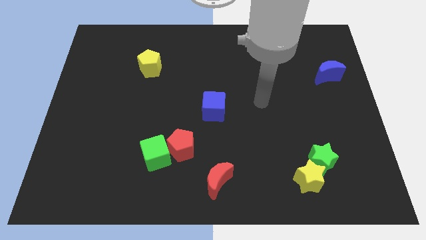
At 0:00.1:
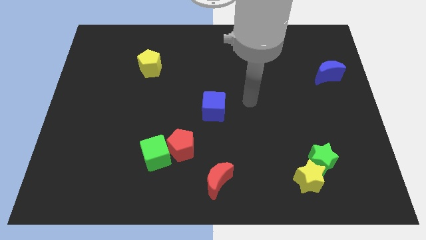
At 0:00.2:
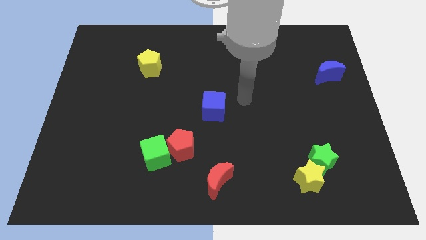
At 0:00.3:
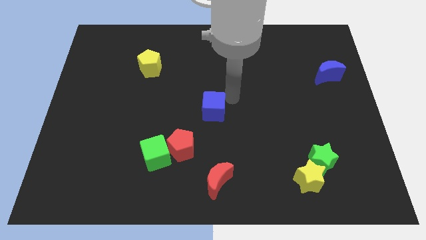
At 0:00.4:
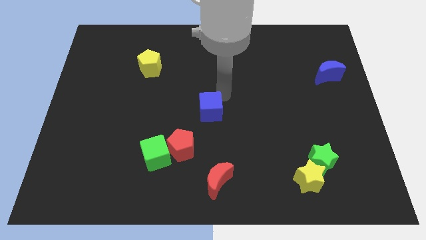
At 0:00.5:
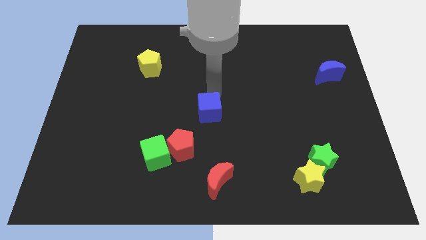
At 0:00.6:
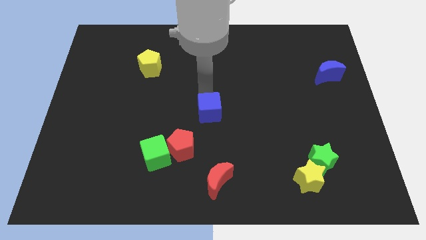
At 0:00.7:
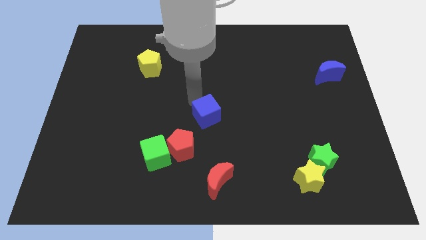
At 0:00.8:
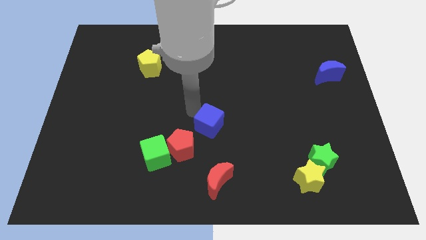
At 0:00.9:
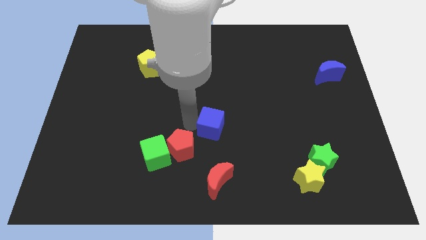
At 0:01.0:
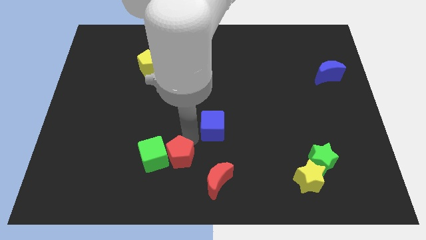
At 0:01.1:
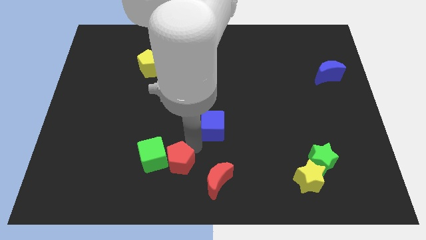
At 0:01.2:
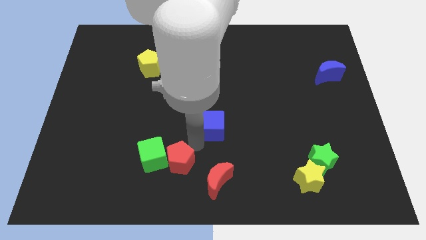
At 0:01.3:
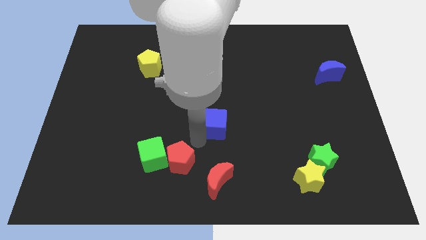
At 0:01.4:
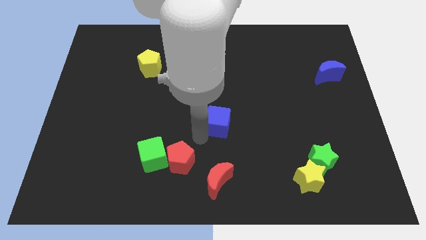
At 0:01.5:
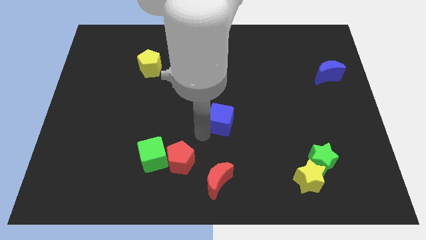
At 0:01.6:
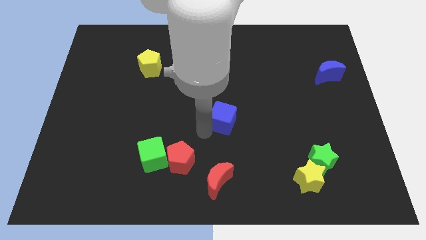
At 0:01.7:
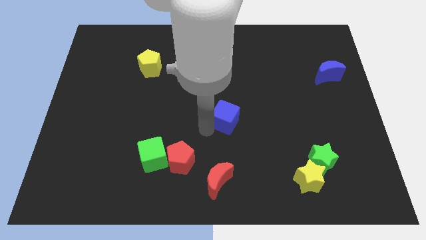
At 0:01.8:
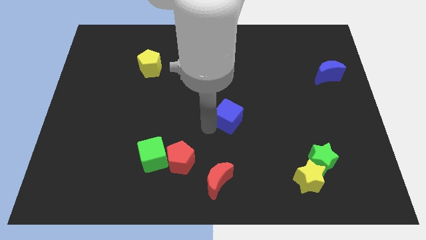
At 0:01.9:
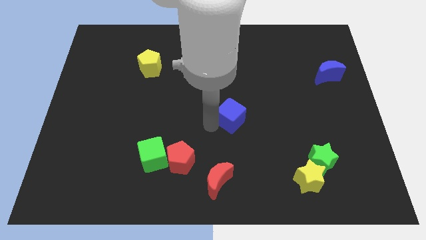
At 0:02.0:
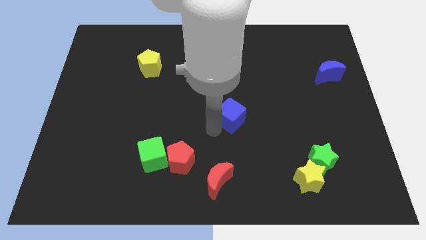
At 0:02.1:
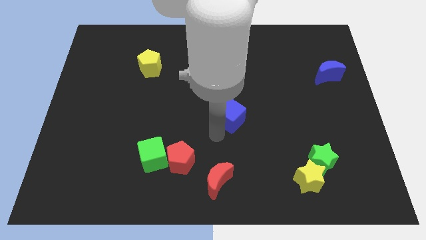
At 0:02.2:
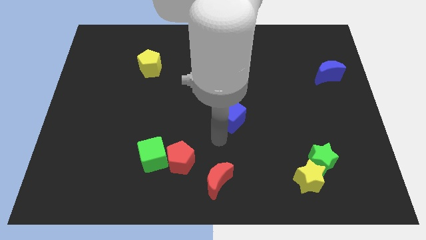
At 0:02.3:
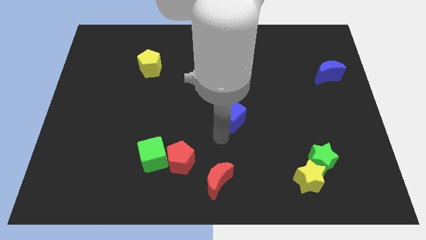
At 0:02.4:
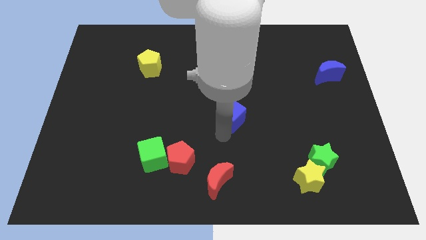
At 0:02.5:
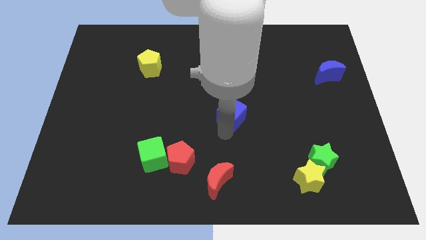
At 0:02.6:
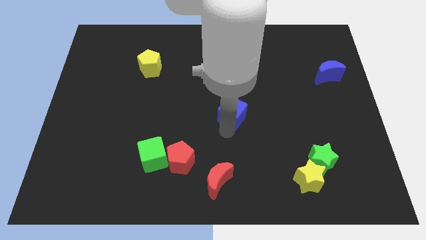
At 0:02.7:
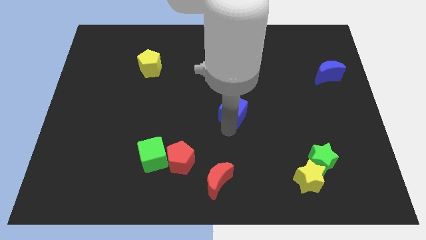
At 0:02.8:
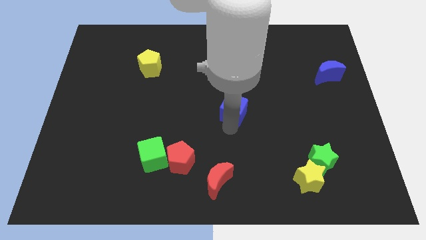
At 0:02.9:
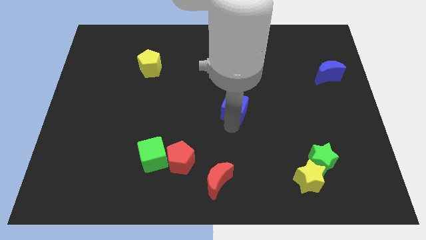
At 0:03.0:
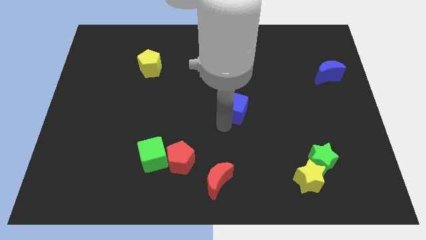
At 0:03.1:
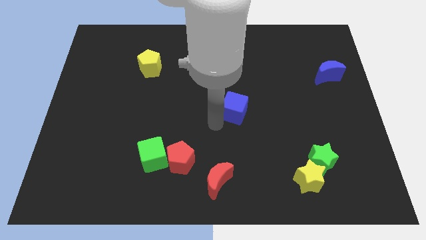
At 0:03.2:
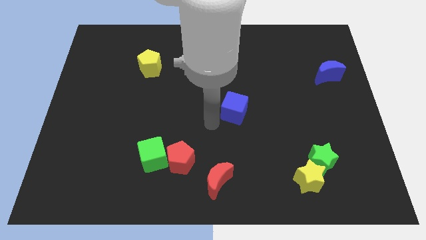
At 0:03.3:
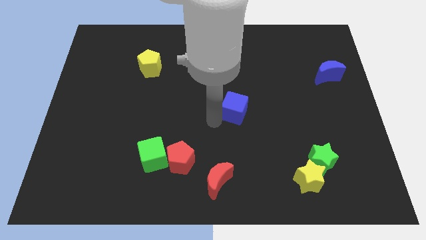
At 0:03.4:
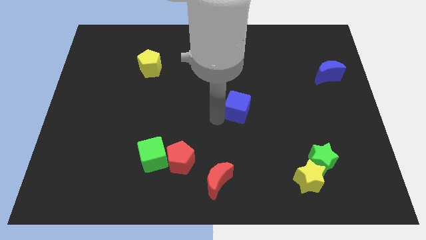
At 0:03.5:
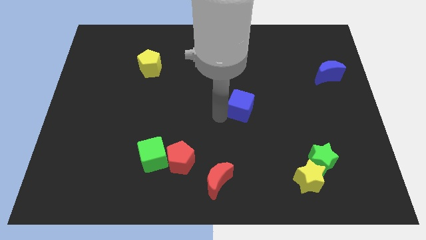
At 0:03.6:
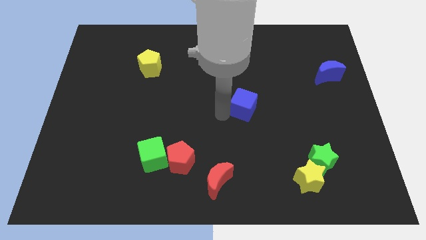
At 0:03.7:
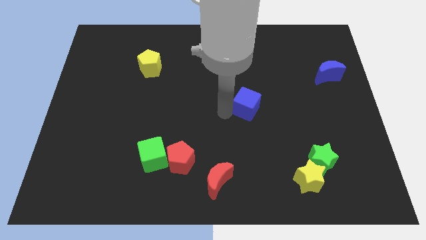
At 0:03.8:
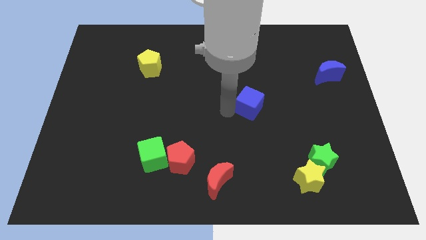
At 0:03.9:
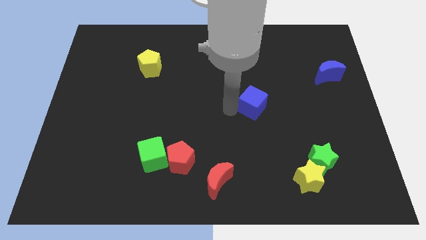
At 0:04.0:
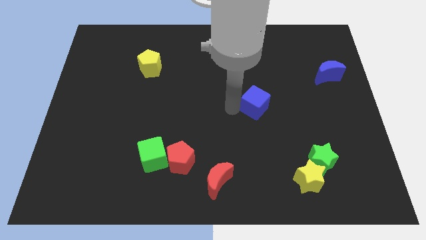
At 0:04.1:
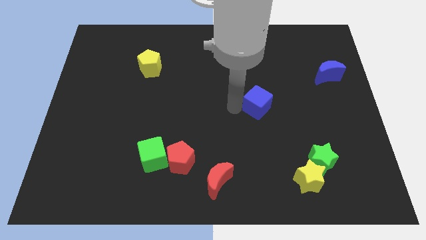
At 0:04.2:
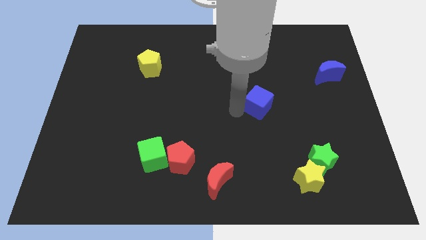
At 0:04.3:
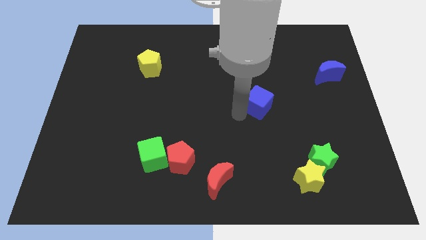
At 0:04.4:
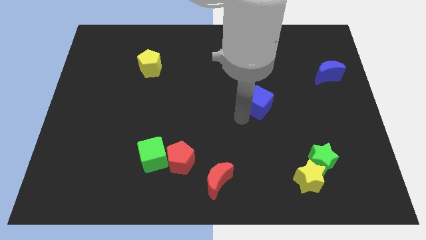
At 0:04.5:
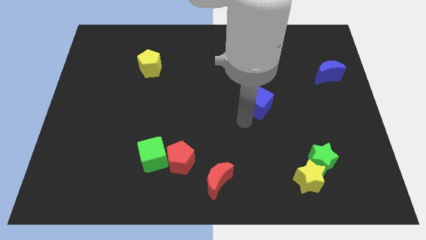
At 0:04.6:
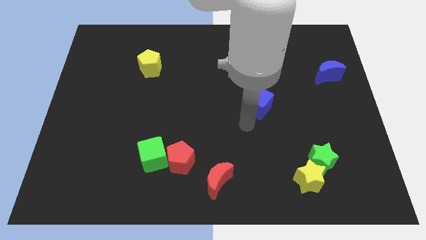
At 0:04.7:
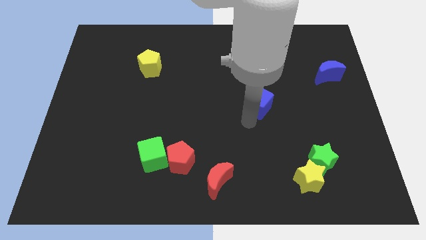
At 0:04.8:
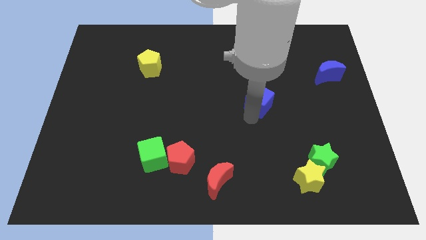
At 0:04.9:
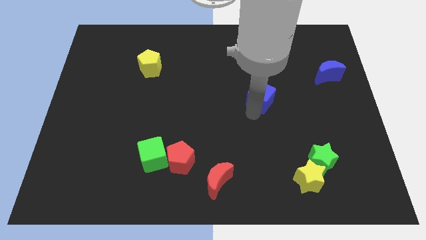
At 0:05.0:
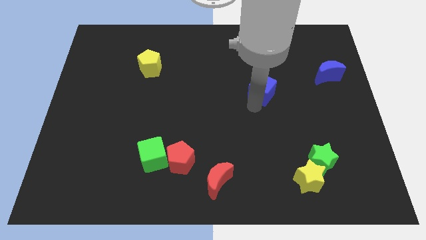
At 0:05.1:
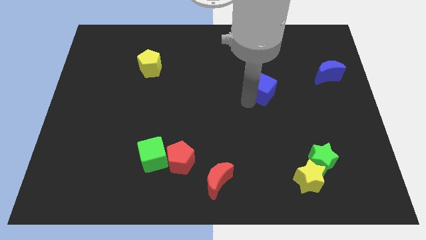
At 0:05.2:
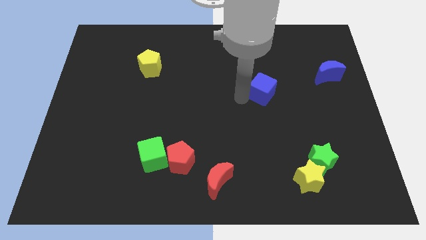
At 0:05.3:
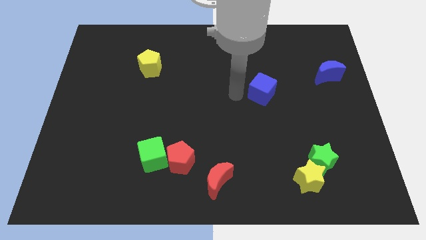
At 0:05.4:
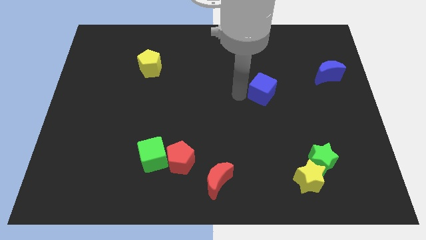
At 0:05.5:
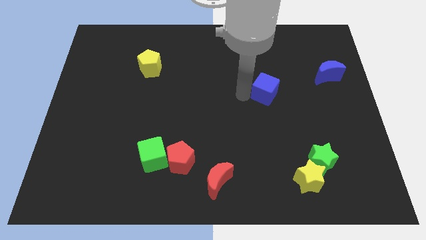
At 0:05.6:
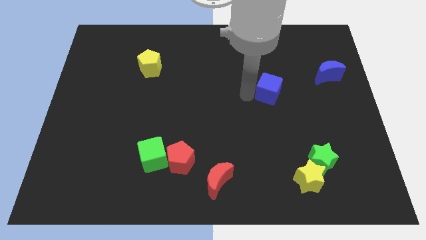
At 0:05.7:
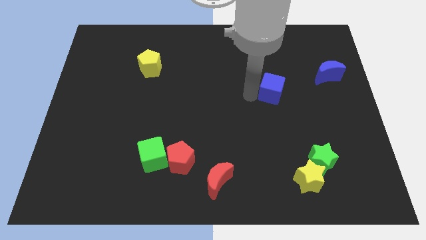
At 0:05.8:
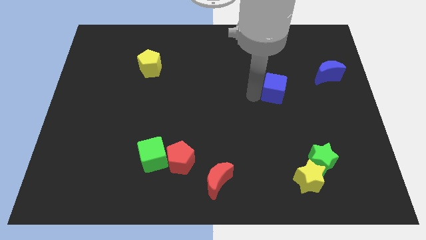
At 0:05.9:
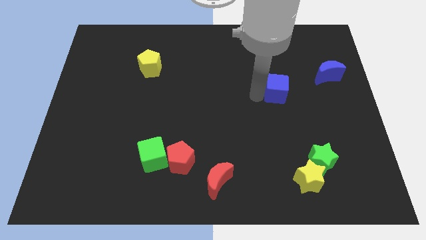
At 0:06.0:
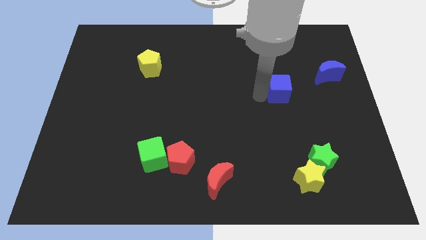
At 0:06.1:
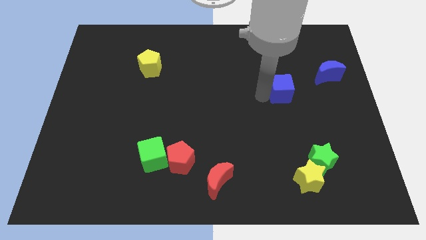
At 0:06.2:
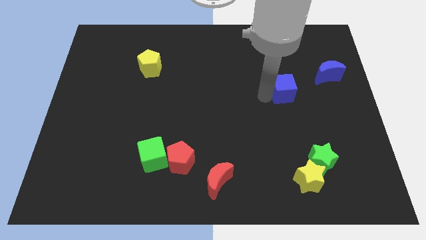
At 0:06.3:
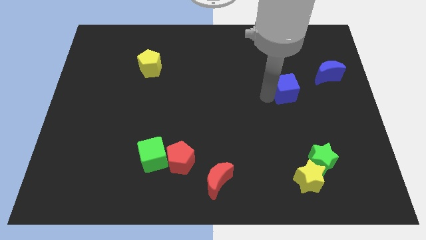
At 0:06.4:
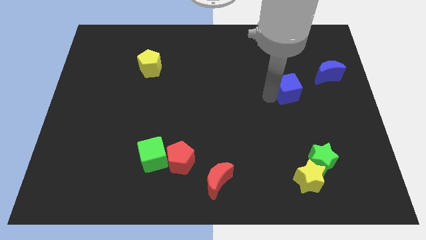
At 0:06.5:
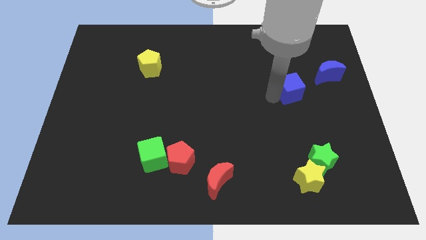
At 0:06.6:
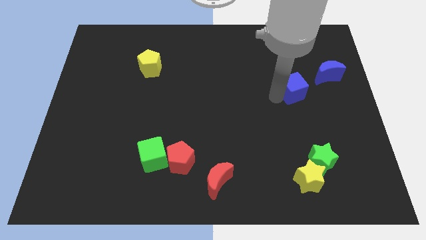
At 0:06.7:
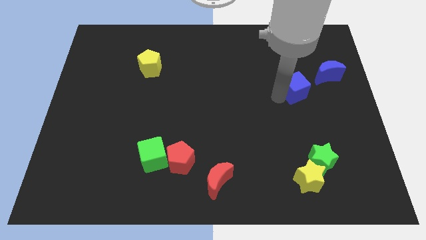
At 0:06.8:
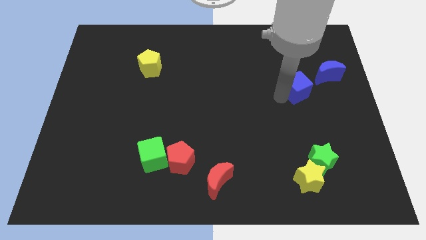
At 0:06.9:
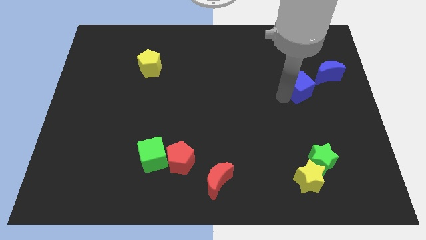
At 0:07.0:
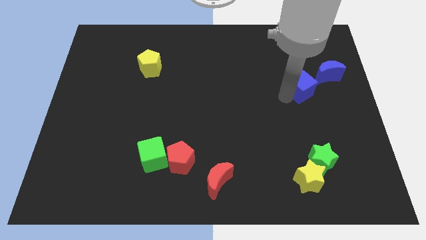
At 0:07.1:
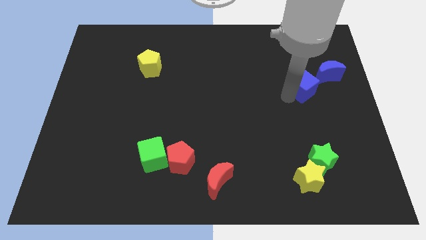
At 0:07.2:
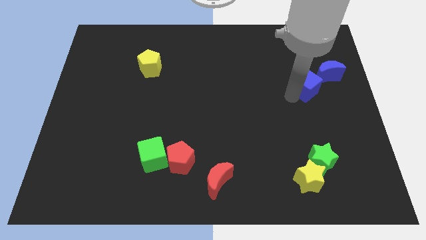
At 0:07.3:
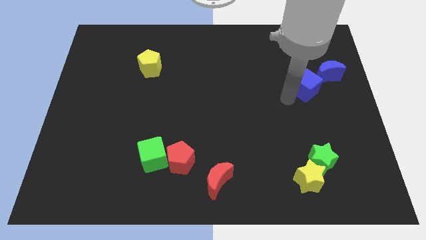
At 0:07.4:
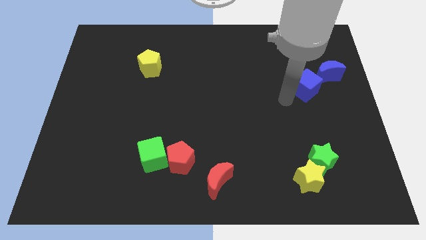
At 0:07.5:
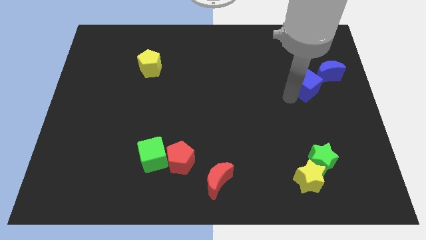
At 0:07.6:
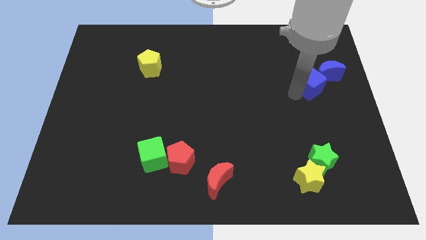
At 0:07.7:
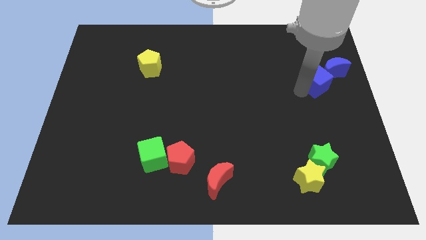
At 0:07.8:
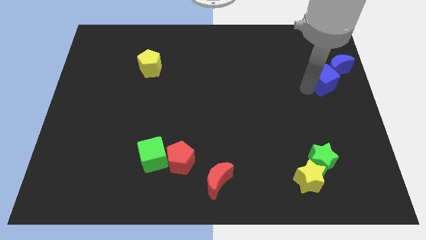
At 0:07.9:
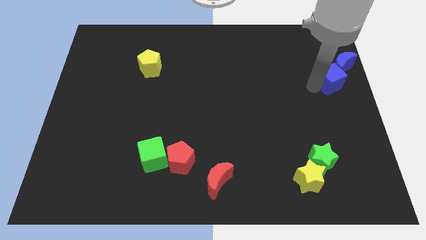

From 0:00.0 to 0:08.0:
put the blue cube next to the blue moon
